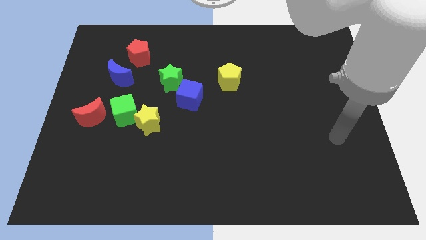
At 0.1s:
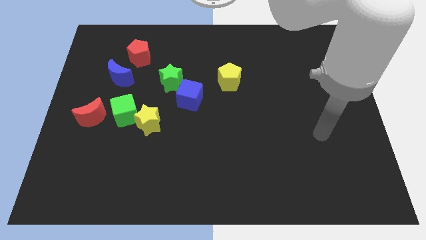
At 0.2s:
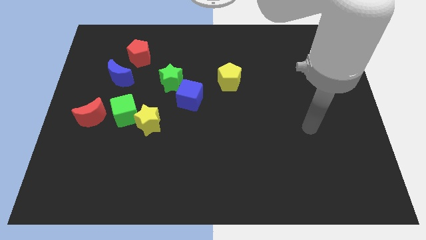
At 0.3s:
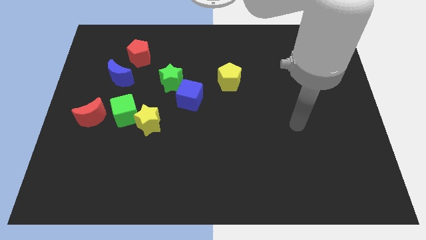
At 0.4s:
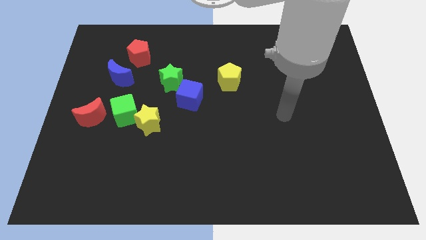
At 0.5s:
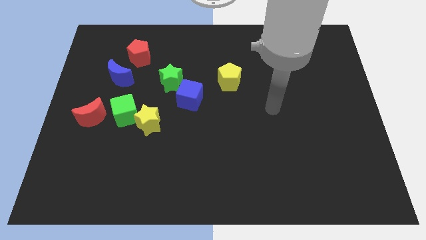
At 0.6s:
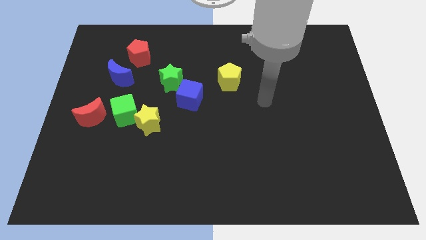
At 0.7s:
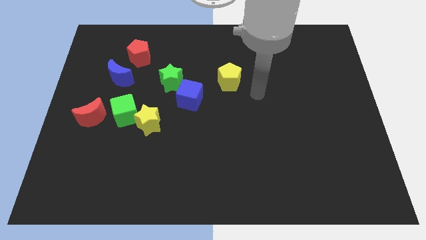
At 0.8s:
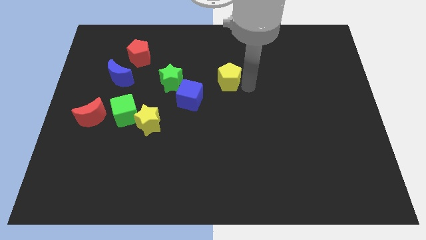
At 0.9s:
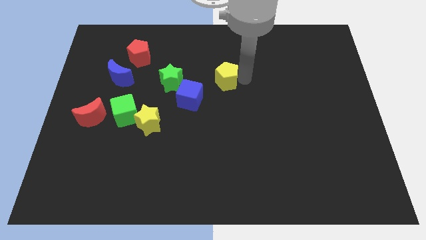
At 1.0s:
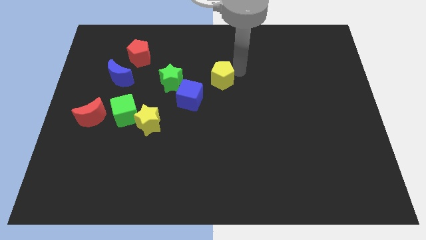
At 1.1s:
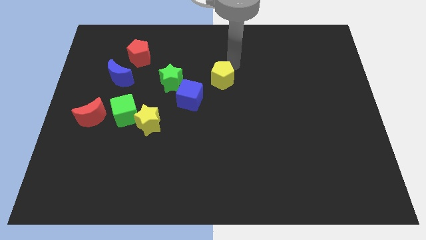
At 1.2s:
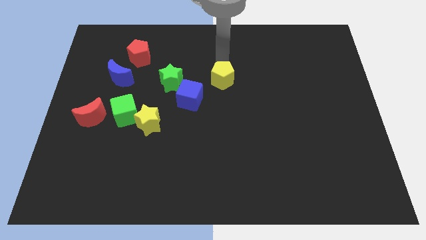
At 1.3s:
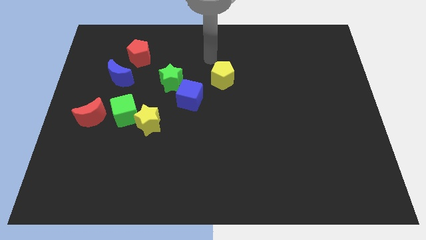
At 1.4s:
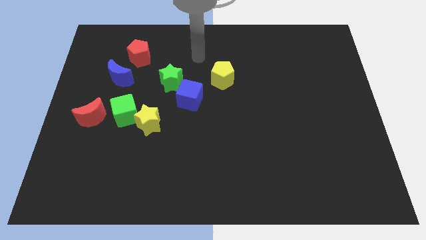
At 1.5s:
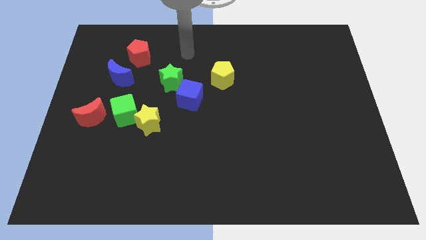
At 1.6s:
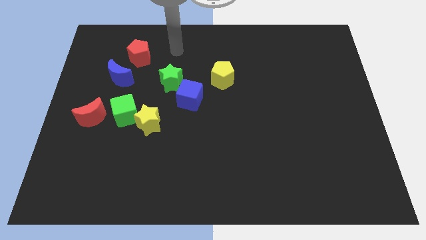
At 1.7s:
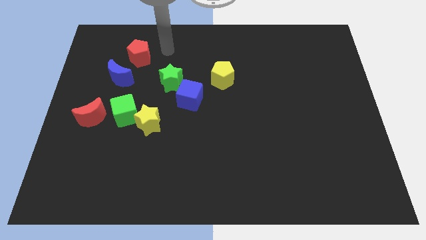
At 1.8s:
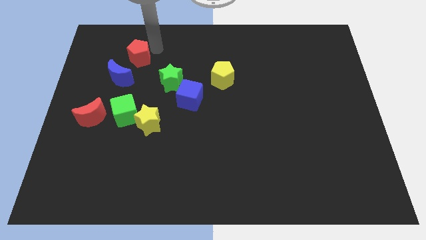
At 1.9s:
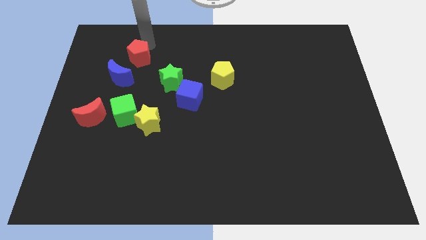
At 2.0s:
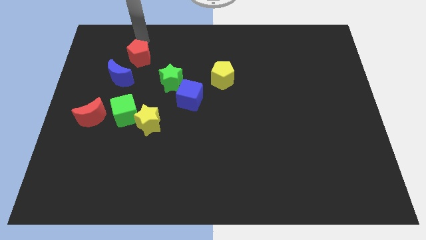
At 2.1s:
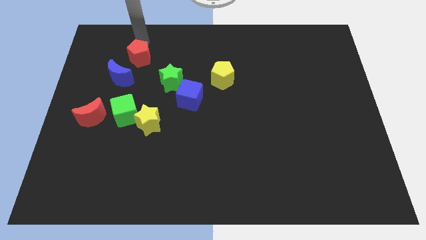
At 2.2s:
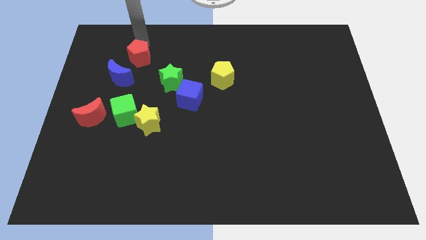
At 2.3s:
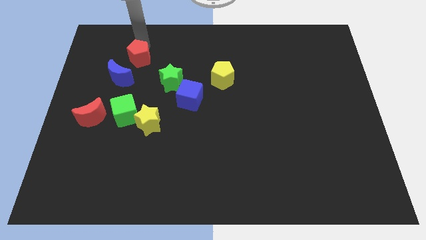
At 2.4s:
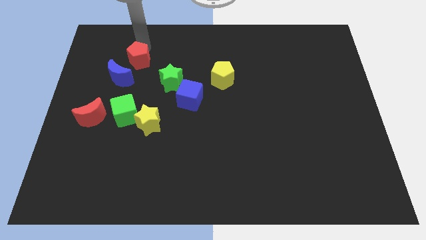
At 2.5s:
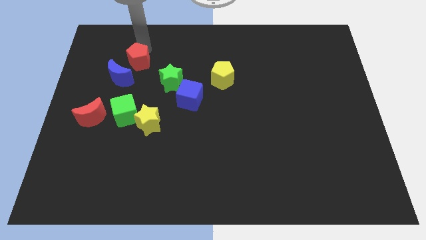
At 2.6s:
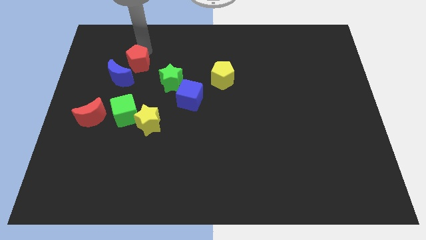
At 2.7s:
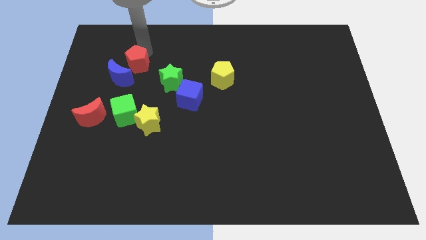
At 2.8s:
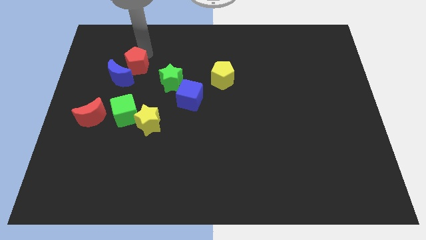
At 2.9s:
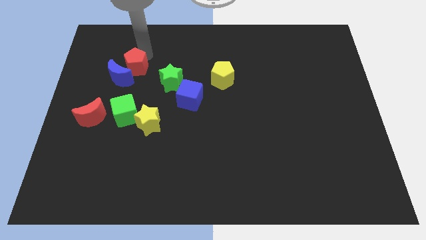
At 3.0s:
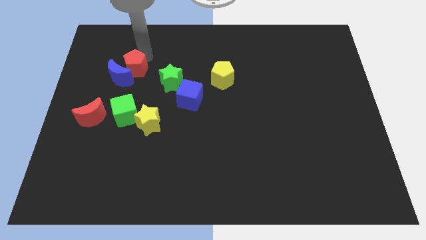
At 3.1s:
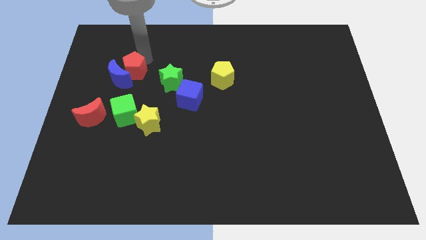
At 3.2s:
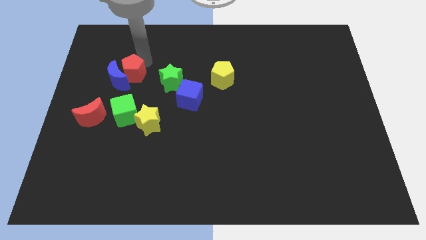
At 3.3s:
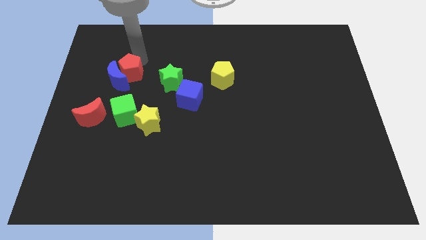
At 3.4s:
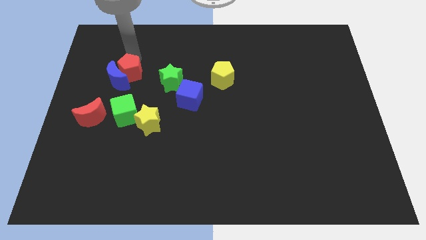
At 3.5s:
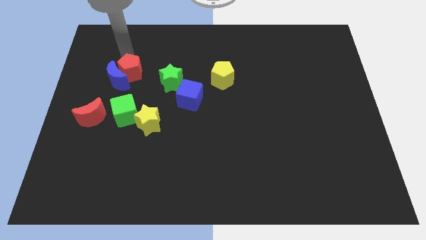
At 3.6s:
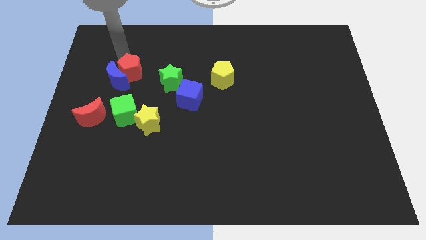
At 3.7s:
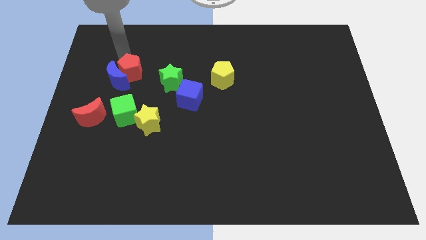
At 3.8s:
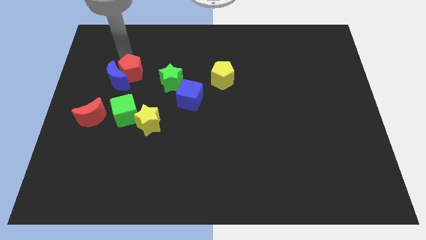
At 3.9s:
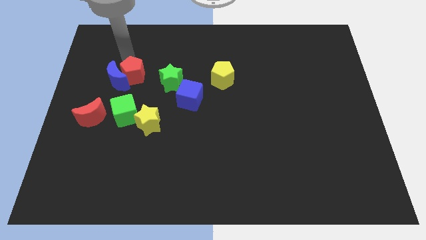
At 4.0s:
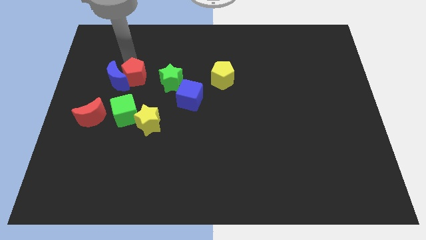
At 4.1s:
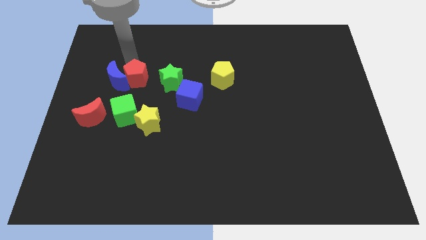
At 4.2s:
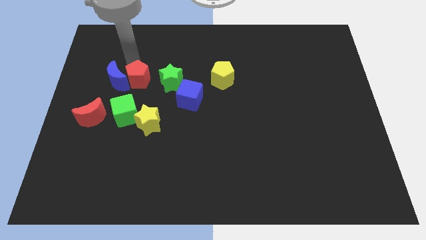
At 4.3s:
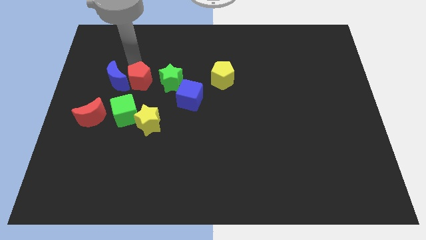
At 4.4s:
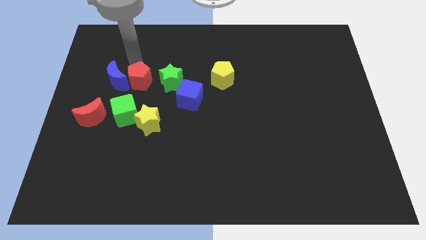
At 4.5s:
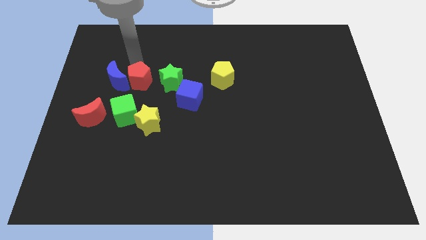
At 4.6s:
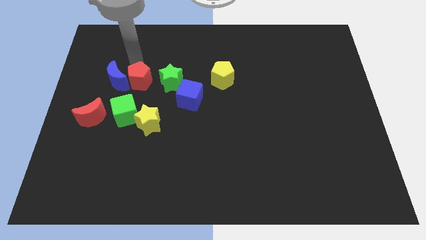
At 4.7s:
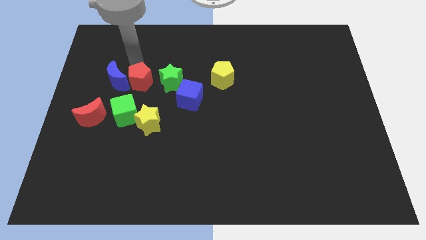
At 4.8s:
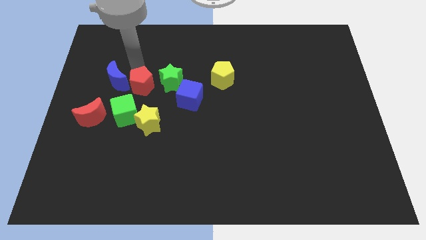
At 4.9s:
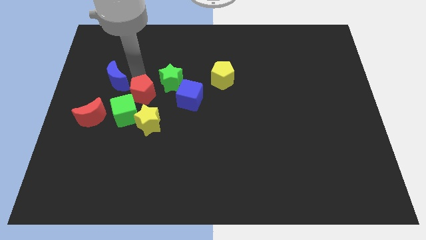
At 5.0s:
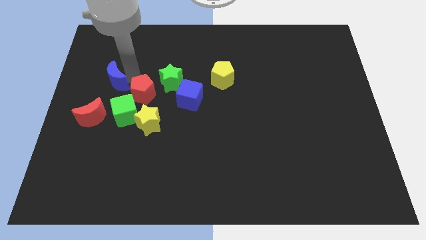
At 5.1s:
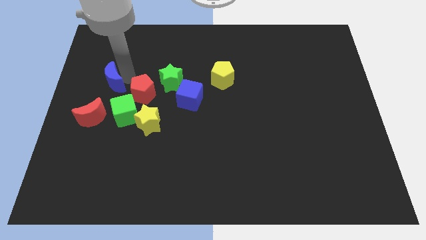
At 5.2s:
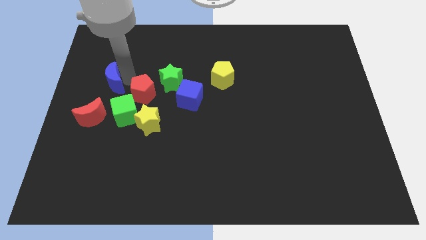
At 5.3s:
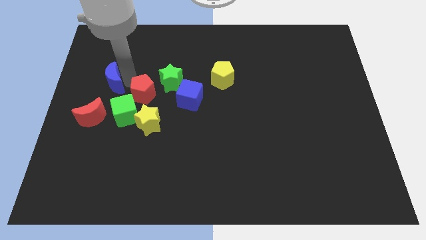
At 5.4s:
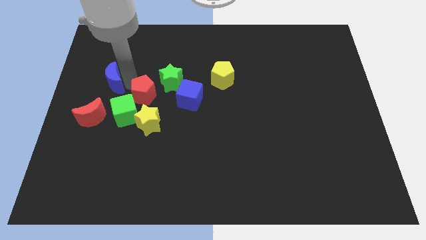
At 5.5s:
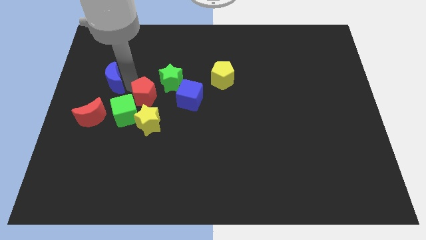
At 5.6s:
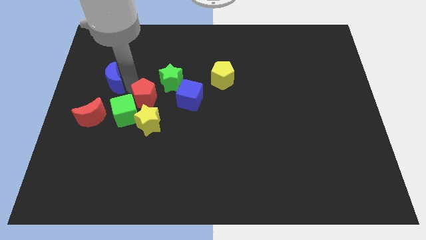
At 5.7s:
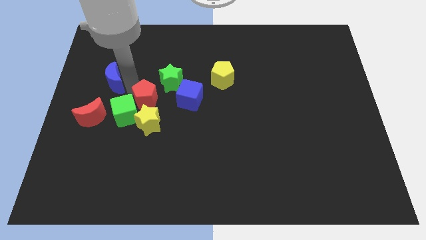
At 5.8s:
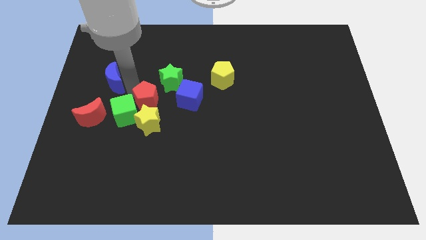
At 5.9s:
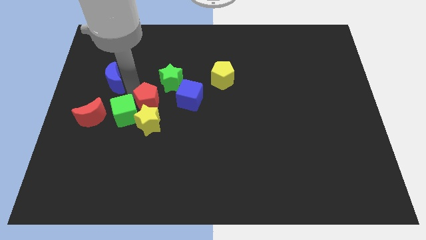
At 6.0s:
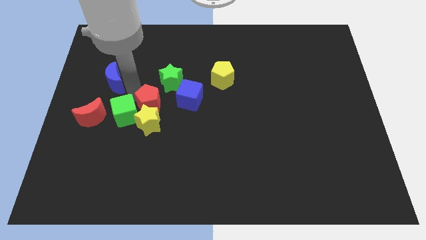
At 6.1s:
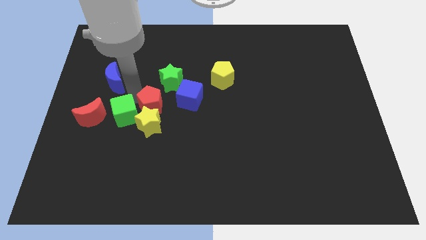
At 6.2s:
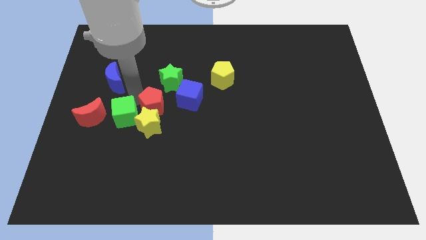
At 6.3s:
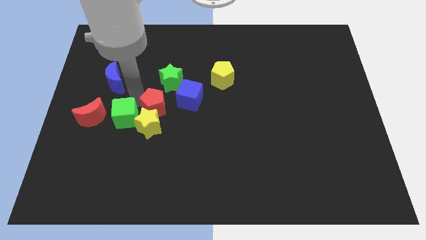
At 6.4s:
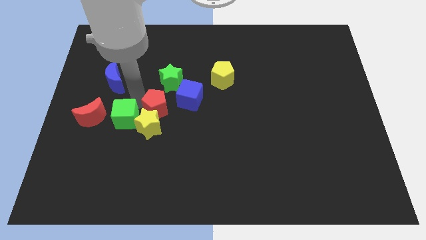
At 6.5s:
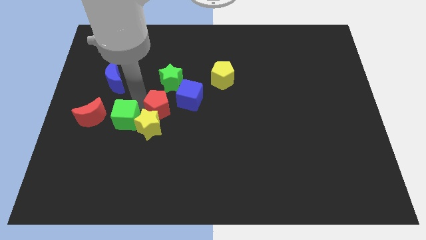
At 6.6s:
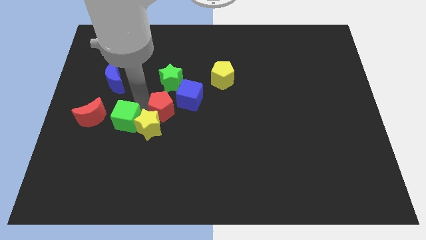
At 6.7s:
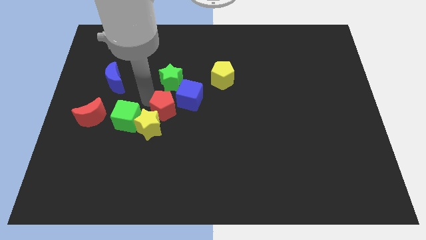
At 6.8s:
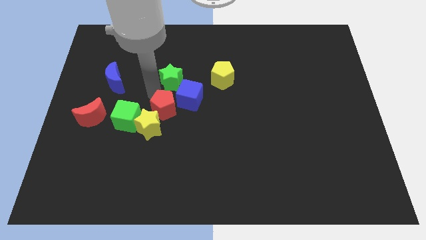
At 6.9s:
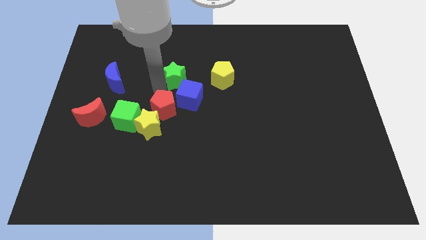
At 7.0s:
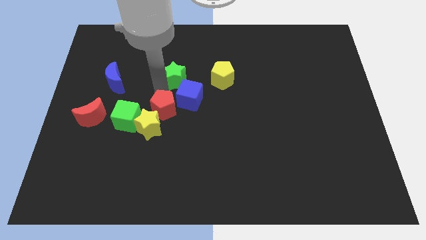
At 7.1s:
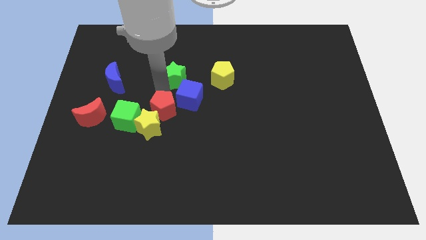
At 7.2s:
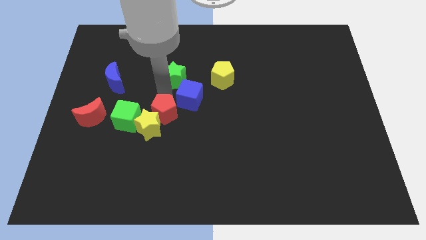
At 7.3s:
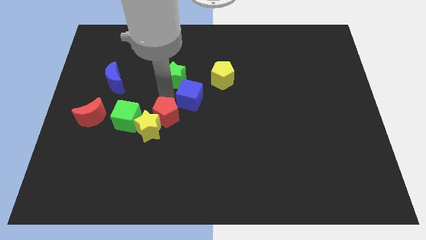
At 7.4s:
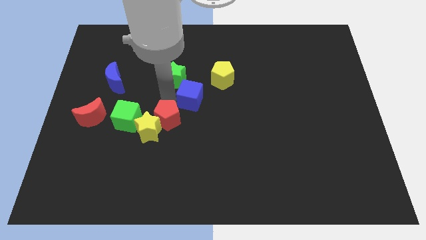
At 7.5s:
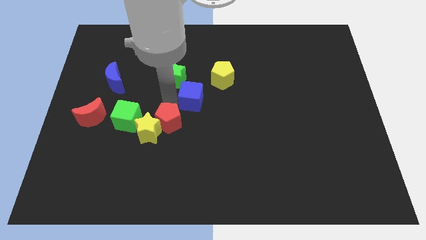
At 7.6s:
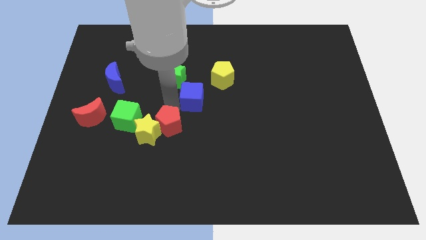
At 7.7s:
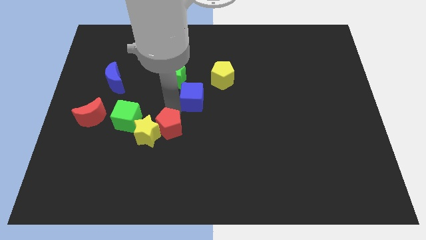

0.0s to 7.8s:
move the red pentagon to the bottom right side of the yellow star
